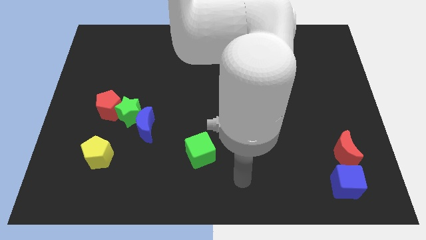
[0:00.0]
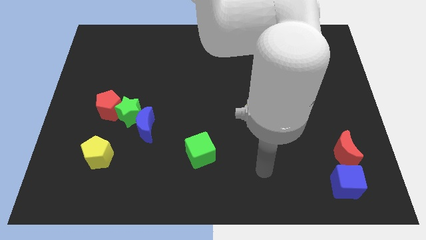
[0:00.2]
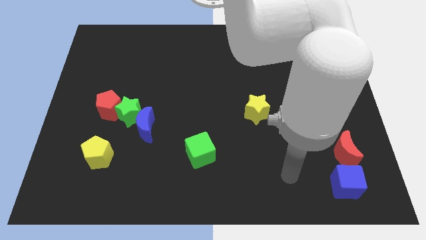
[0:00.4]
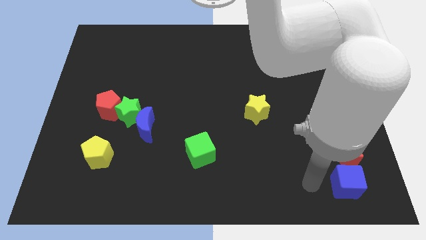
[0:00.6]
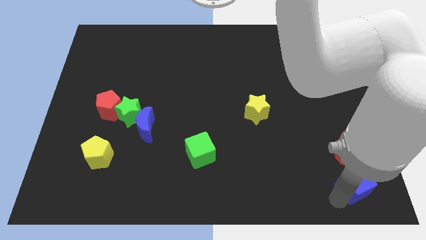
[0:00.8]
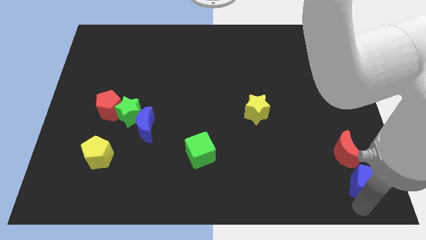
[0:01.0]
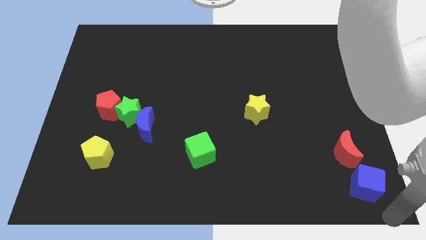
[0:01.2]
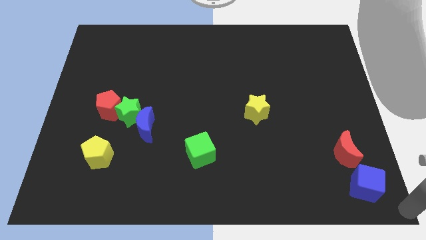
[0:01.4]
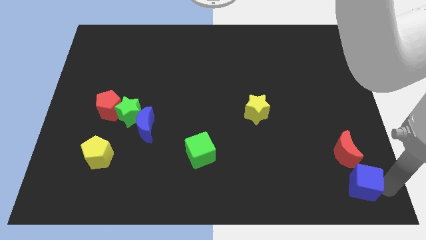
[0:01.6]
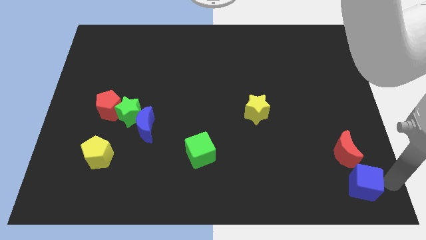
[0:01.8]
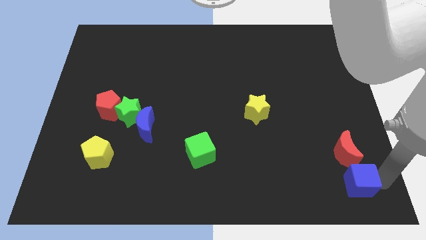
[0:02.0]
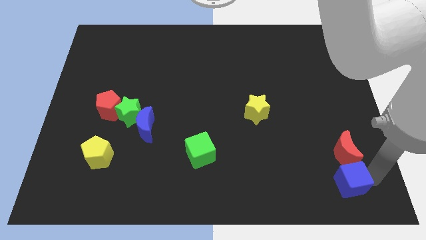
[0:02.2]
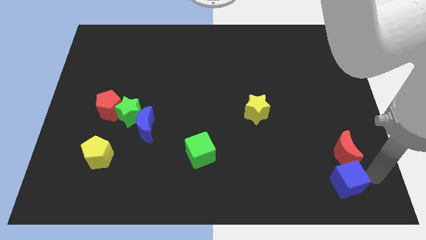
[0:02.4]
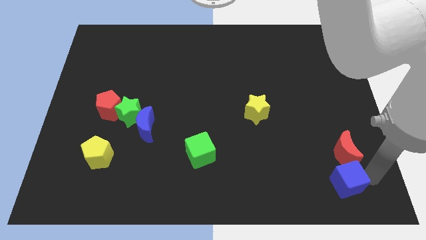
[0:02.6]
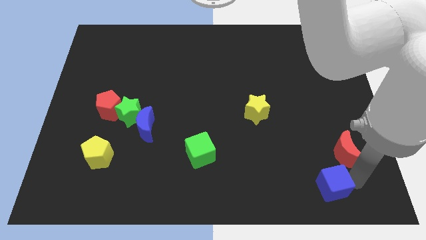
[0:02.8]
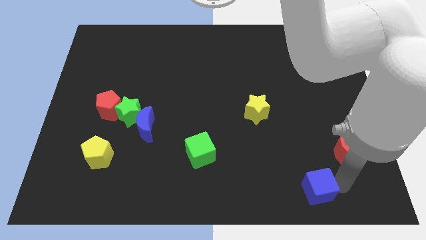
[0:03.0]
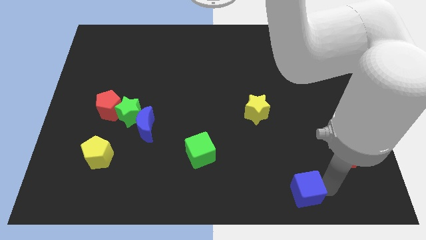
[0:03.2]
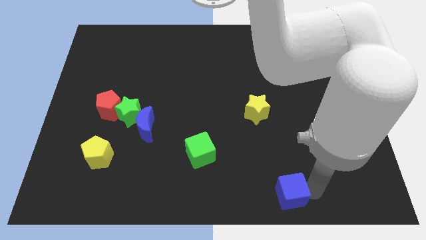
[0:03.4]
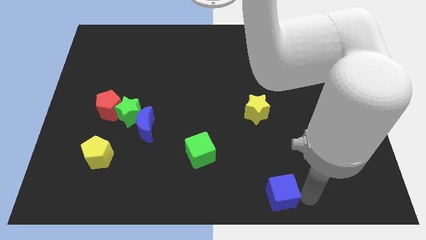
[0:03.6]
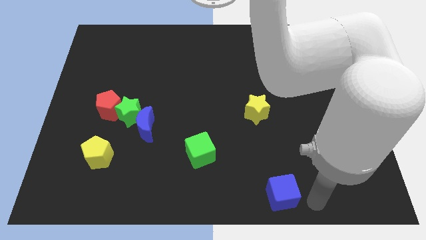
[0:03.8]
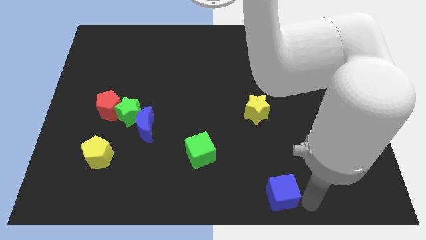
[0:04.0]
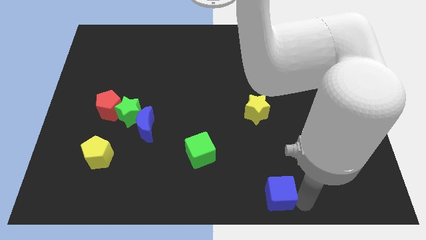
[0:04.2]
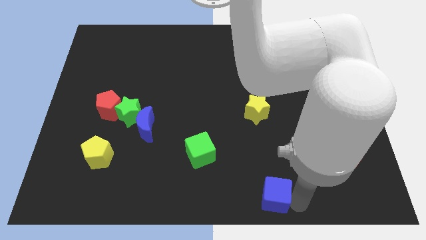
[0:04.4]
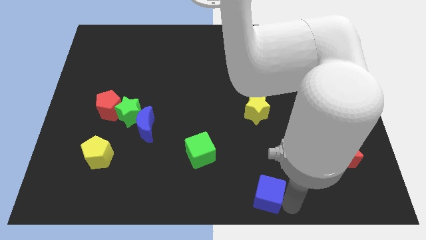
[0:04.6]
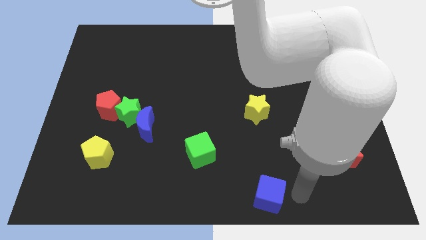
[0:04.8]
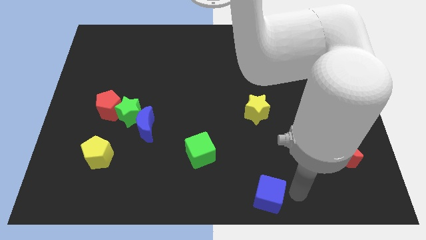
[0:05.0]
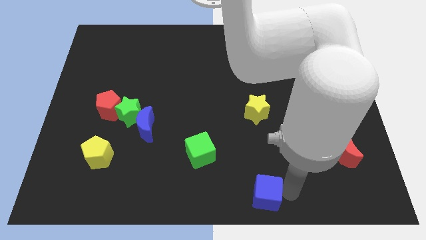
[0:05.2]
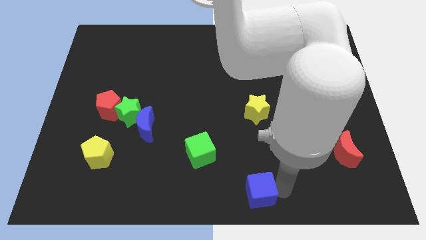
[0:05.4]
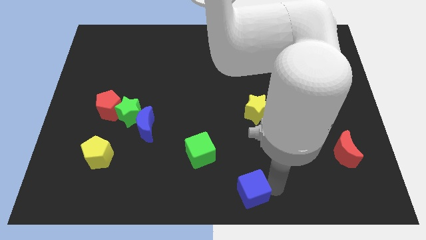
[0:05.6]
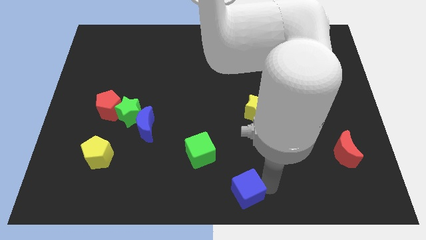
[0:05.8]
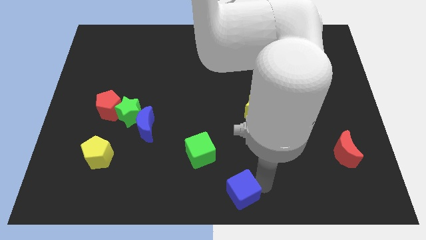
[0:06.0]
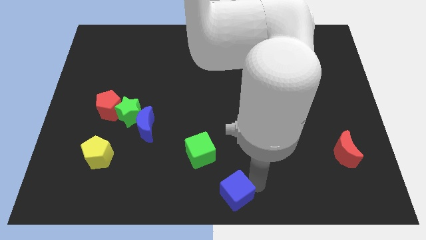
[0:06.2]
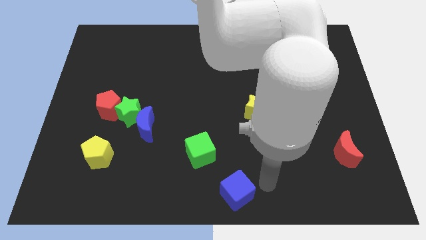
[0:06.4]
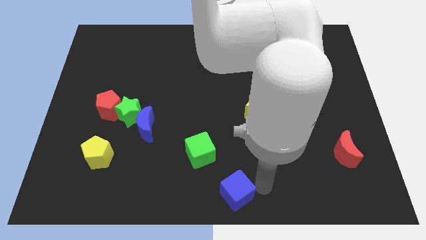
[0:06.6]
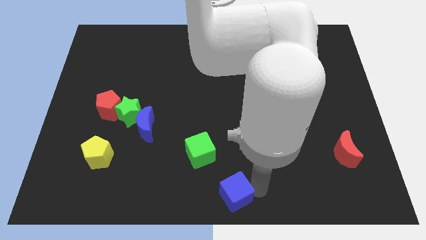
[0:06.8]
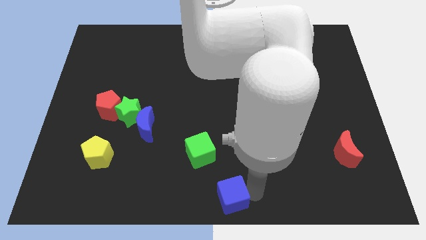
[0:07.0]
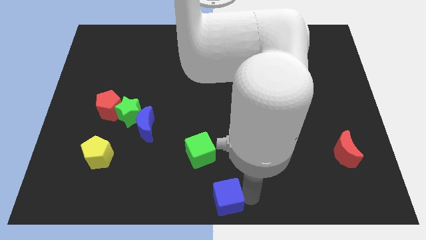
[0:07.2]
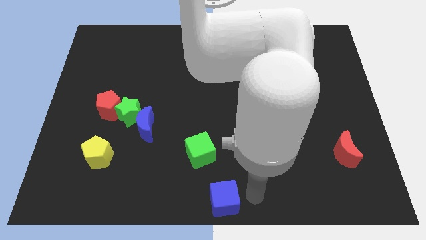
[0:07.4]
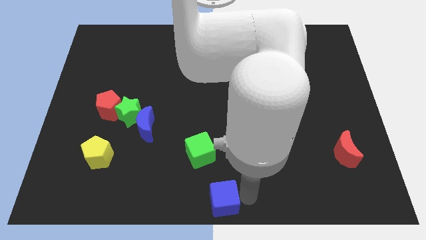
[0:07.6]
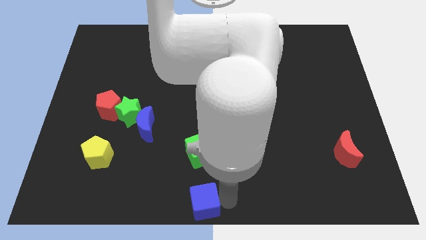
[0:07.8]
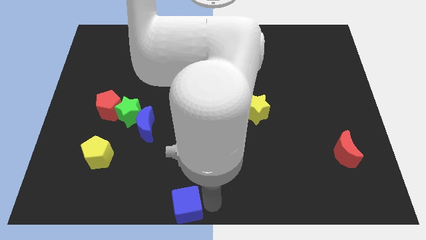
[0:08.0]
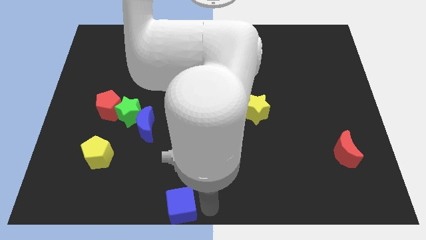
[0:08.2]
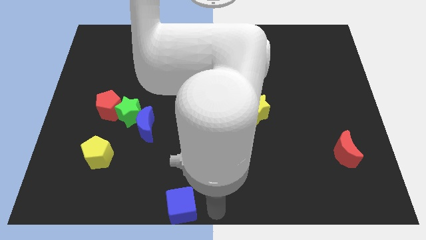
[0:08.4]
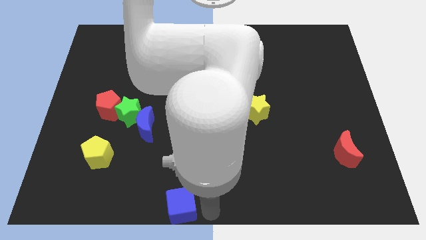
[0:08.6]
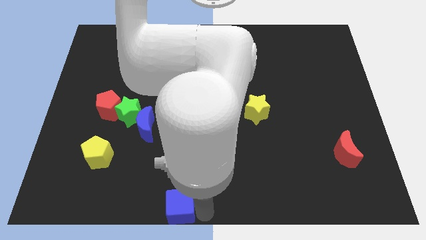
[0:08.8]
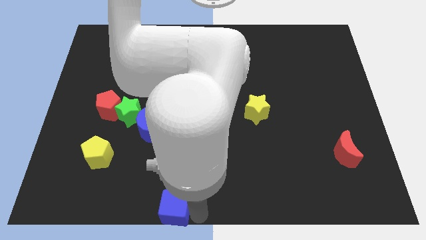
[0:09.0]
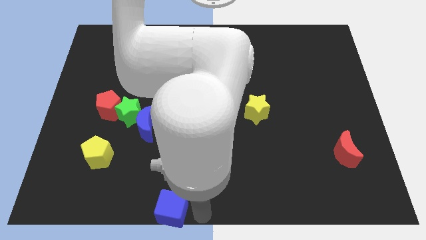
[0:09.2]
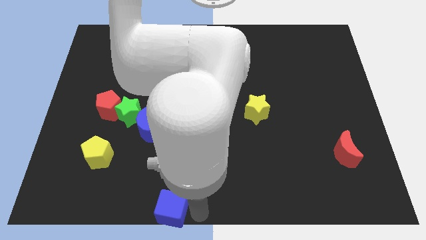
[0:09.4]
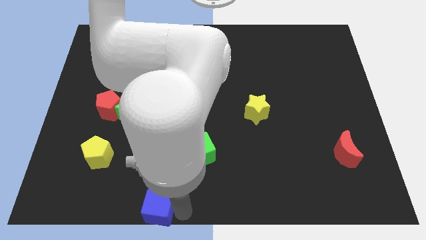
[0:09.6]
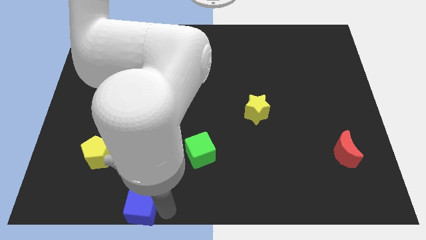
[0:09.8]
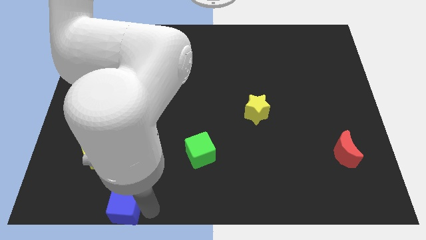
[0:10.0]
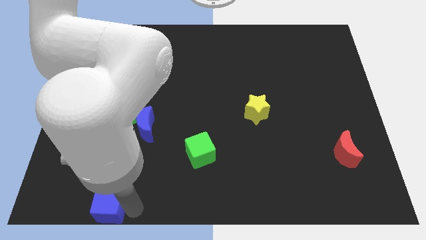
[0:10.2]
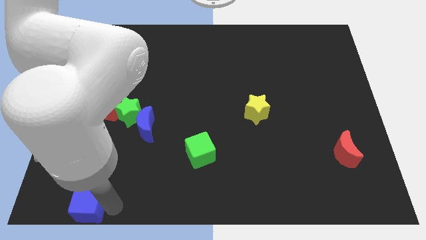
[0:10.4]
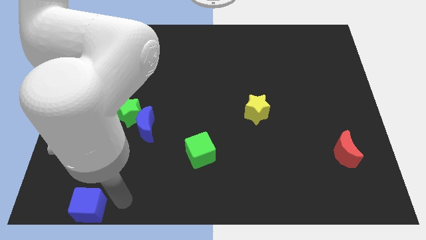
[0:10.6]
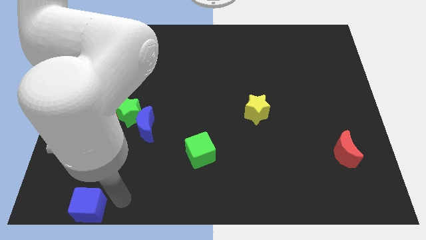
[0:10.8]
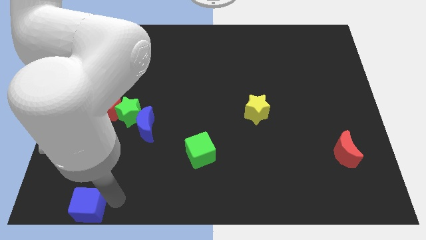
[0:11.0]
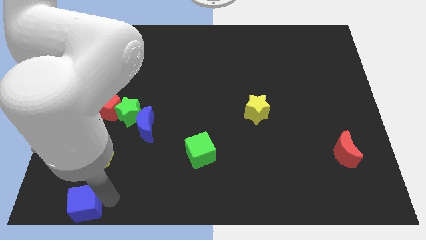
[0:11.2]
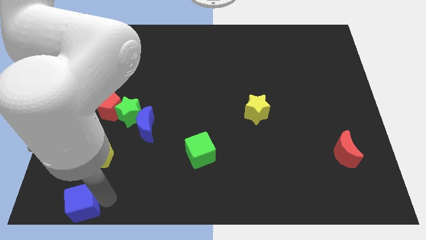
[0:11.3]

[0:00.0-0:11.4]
push the blue cube to the bottom left corner
